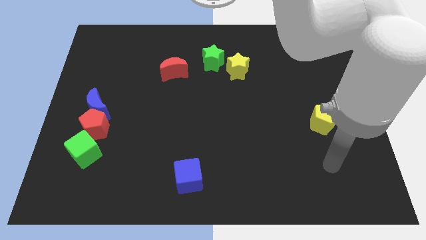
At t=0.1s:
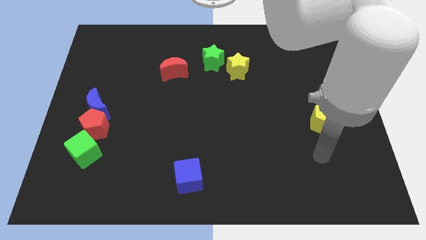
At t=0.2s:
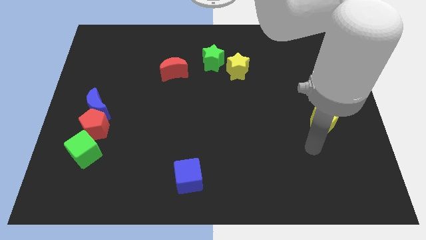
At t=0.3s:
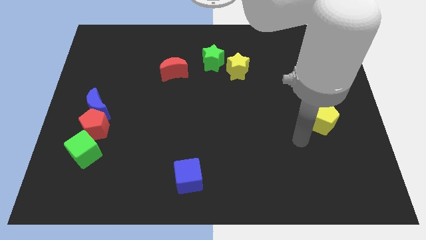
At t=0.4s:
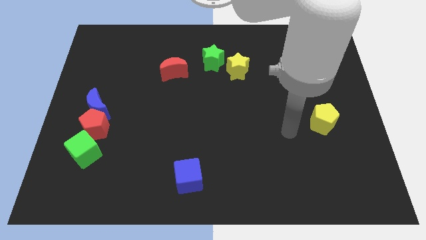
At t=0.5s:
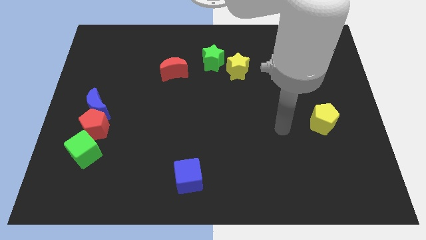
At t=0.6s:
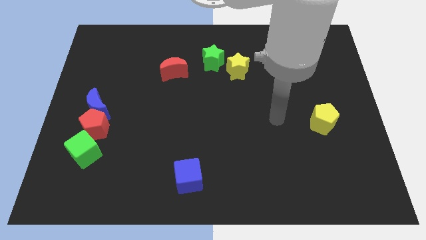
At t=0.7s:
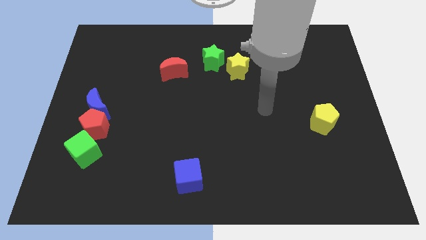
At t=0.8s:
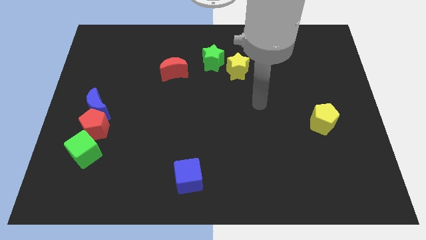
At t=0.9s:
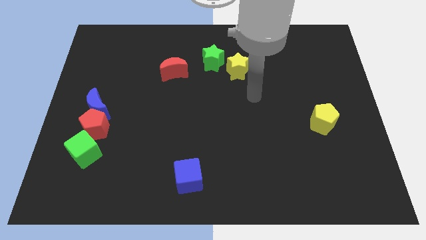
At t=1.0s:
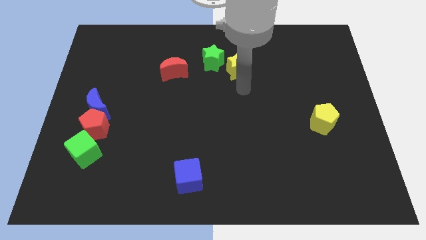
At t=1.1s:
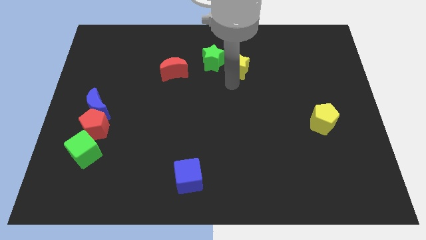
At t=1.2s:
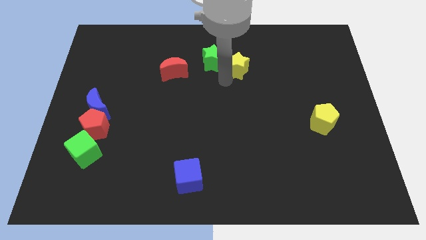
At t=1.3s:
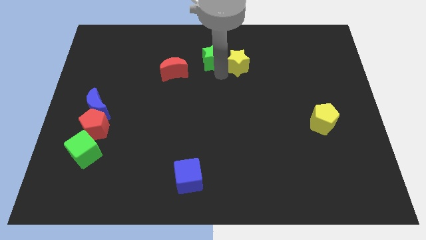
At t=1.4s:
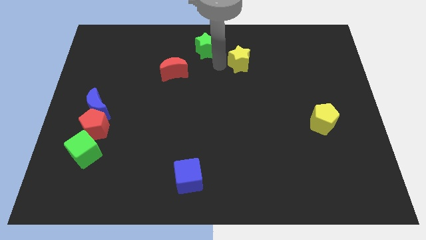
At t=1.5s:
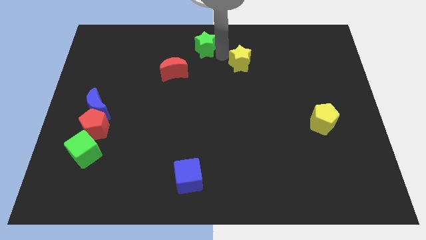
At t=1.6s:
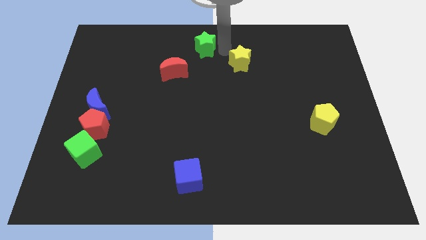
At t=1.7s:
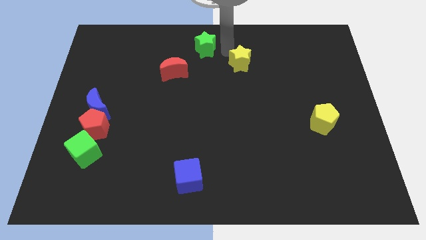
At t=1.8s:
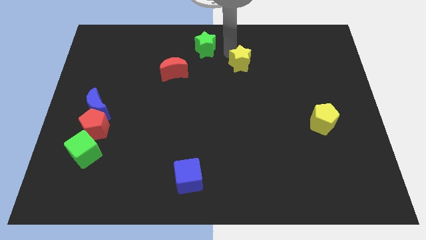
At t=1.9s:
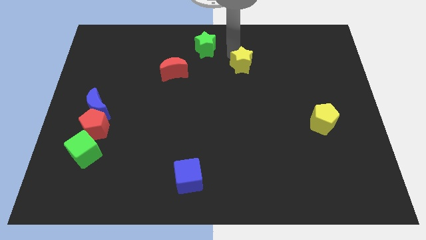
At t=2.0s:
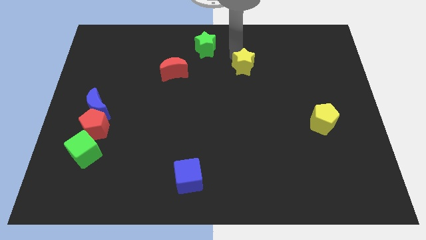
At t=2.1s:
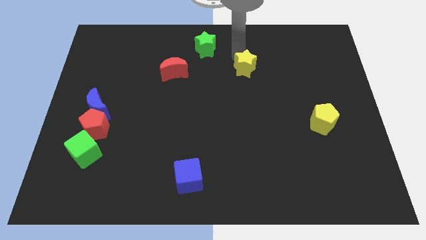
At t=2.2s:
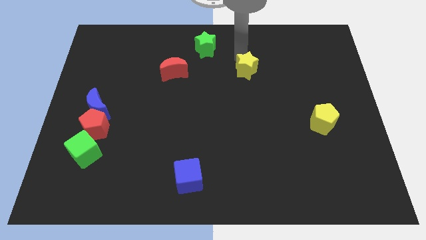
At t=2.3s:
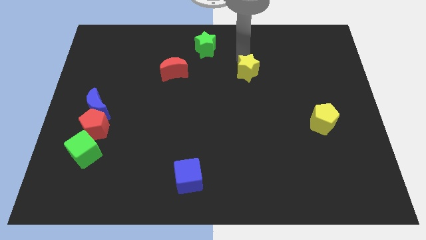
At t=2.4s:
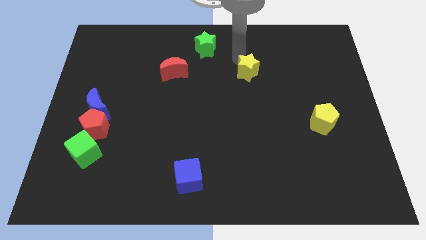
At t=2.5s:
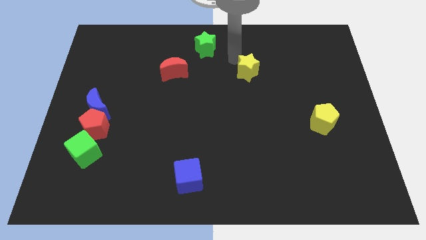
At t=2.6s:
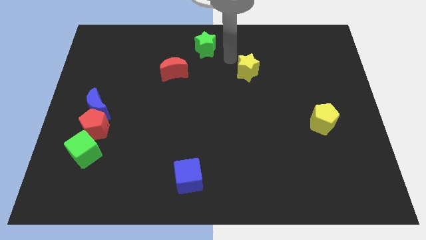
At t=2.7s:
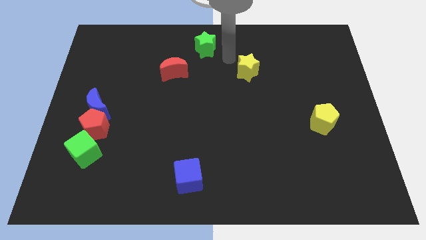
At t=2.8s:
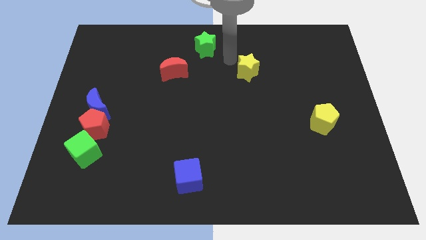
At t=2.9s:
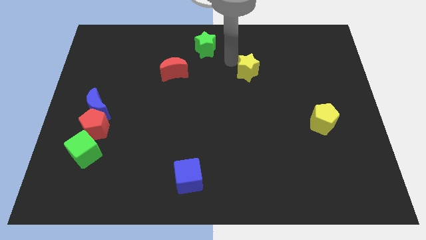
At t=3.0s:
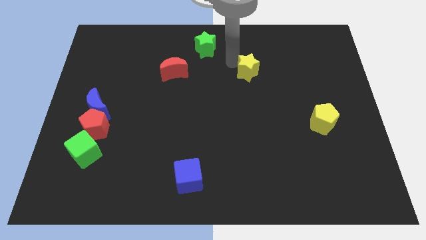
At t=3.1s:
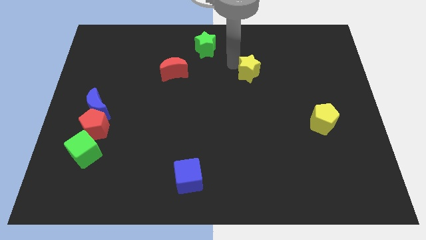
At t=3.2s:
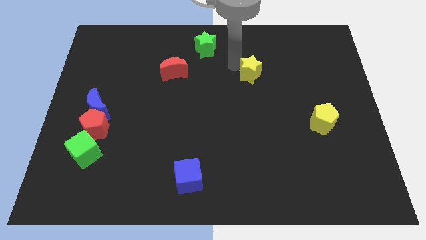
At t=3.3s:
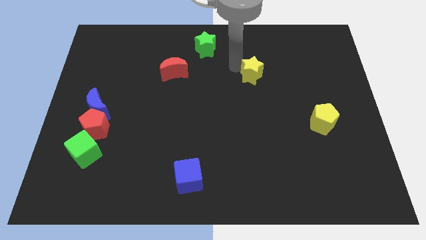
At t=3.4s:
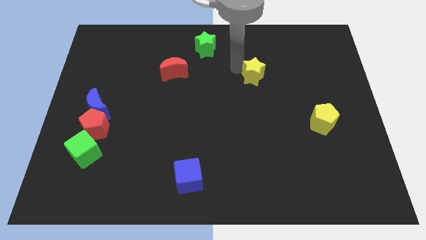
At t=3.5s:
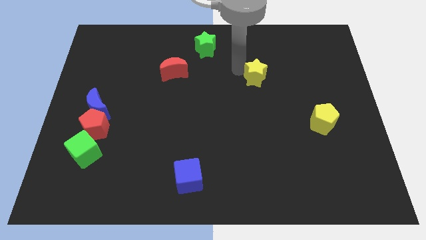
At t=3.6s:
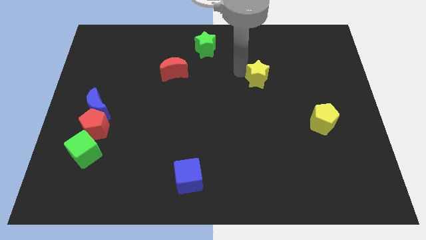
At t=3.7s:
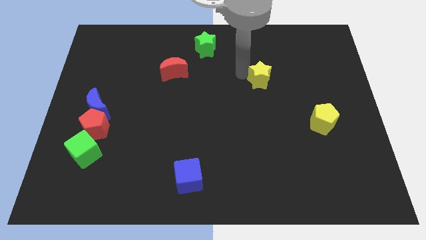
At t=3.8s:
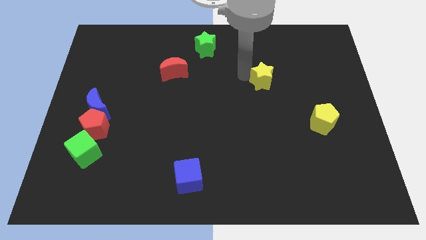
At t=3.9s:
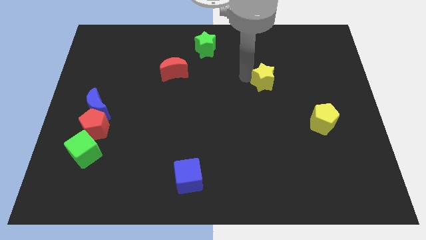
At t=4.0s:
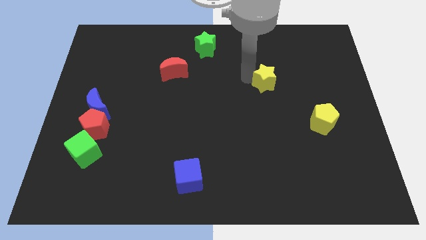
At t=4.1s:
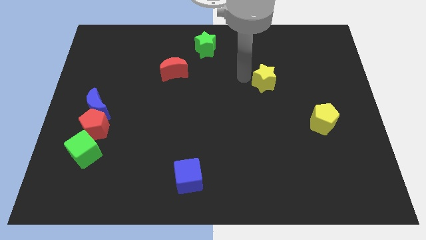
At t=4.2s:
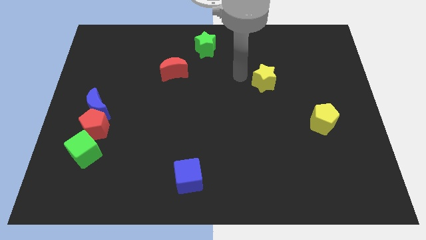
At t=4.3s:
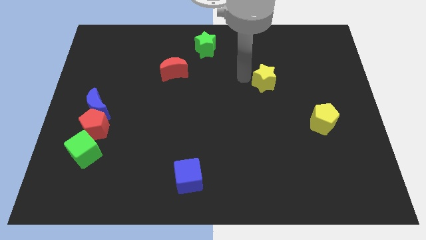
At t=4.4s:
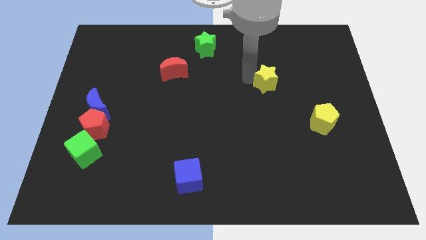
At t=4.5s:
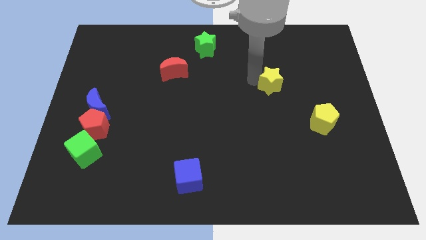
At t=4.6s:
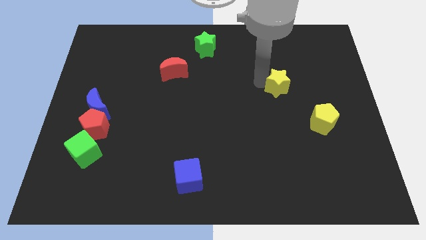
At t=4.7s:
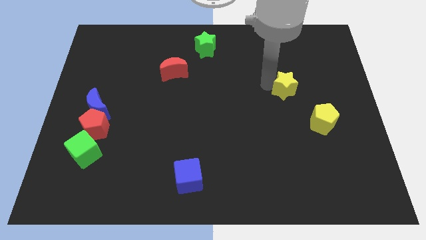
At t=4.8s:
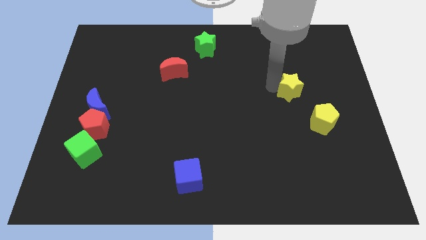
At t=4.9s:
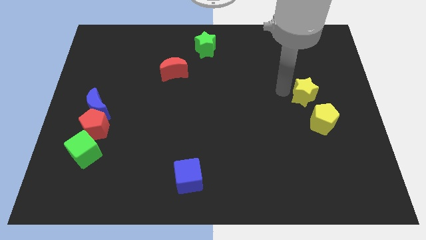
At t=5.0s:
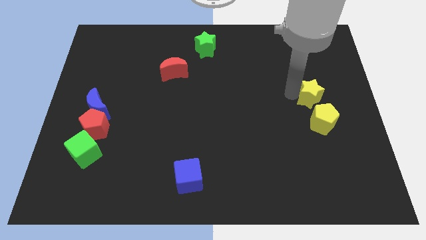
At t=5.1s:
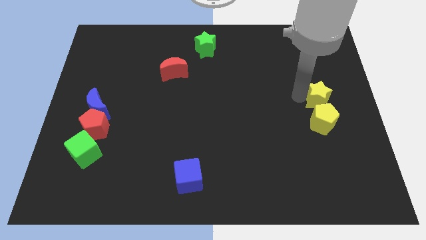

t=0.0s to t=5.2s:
slide the yellow star to the right side of the board
